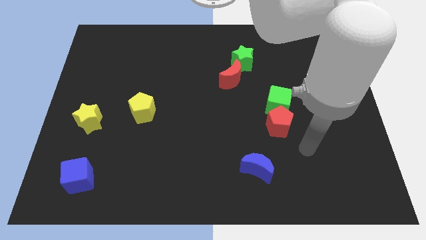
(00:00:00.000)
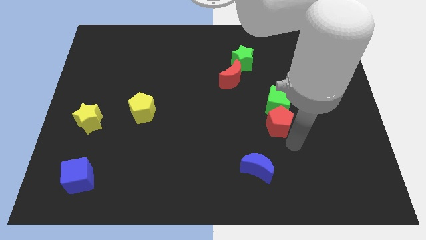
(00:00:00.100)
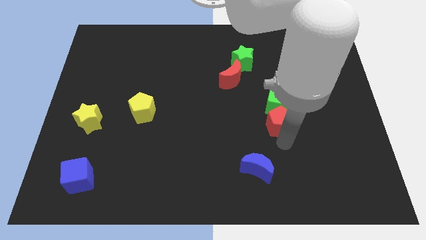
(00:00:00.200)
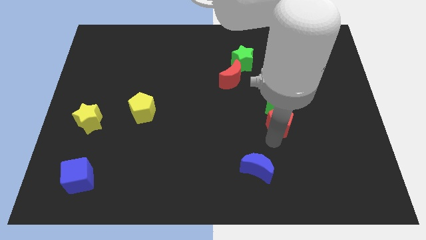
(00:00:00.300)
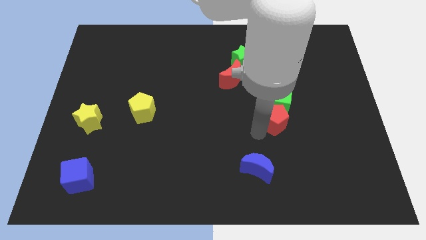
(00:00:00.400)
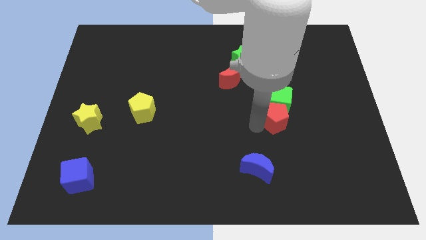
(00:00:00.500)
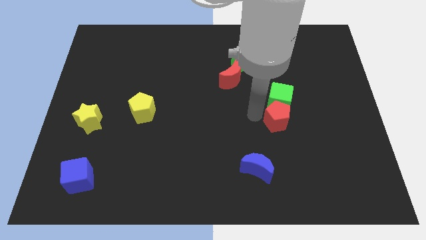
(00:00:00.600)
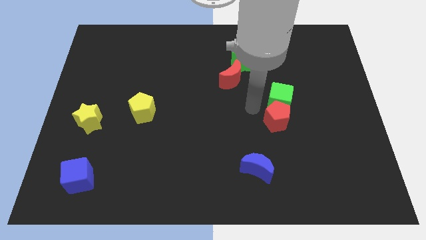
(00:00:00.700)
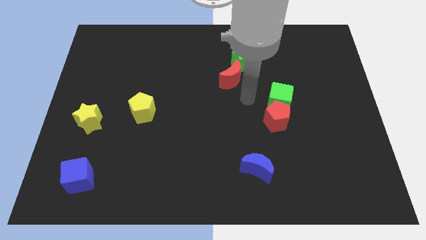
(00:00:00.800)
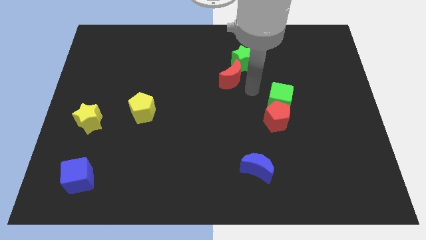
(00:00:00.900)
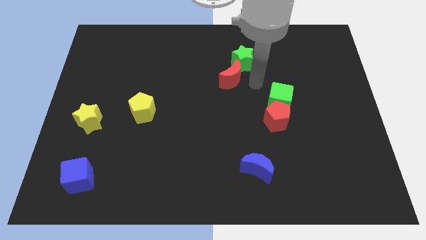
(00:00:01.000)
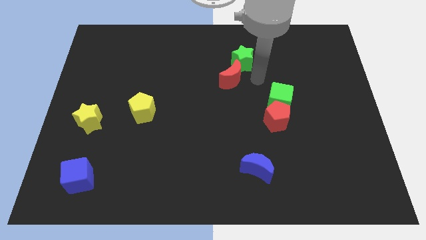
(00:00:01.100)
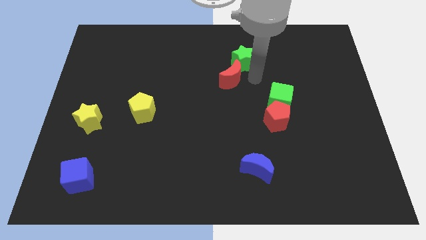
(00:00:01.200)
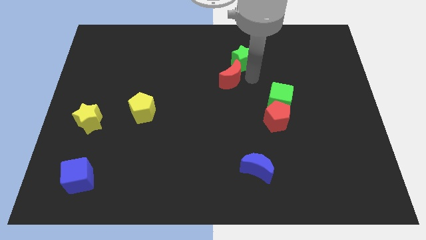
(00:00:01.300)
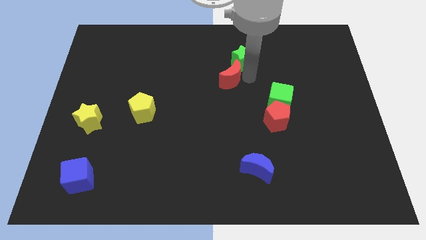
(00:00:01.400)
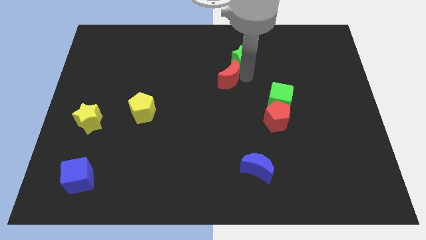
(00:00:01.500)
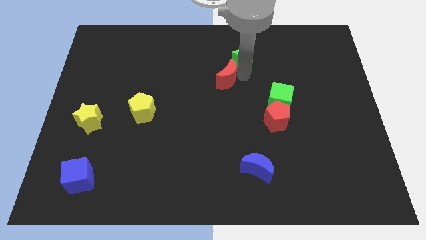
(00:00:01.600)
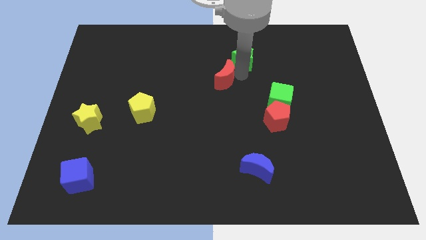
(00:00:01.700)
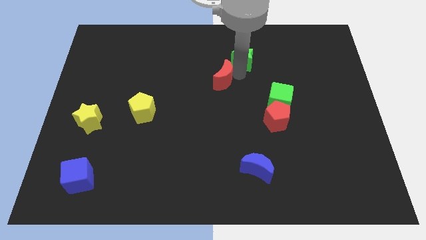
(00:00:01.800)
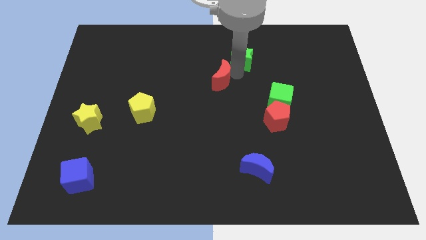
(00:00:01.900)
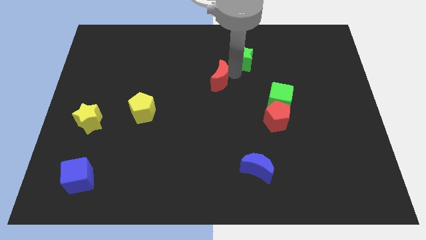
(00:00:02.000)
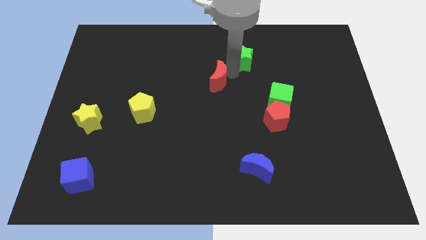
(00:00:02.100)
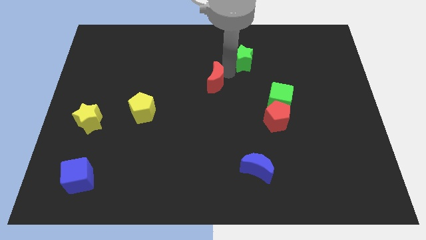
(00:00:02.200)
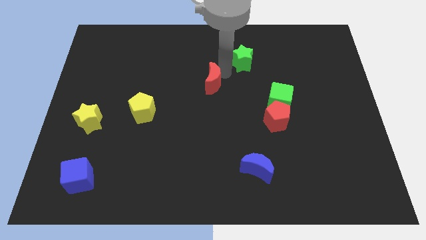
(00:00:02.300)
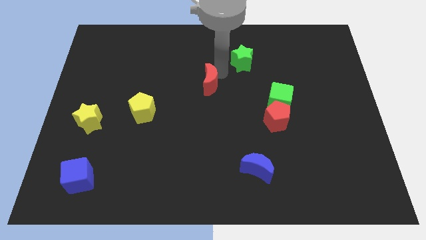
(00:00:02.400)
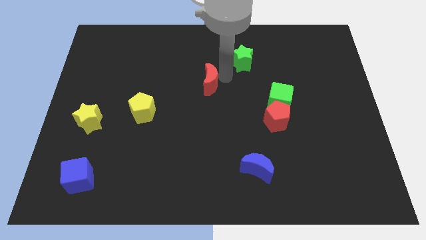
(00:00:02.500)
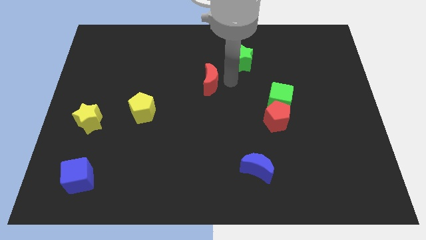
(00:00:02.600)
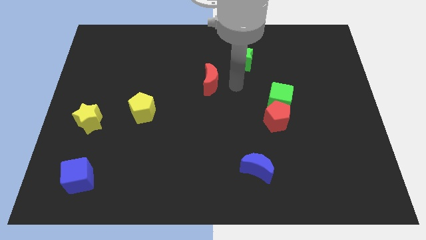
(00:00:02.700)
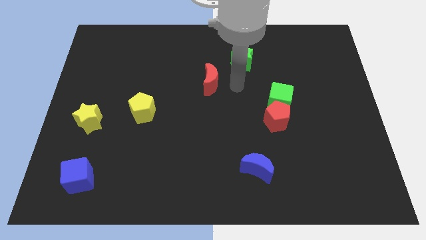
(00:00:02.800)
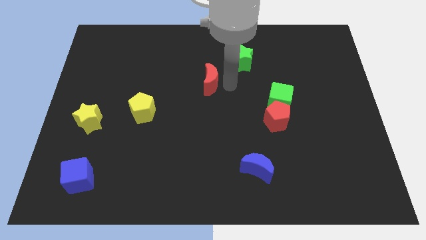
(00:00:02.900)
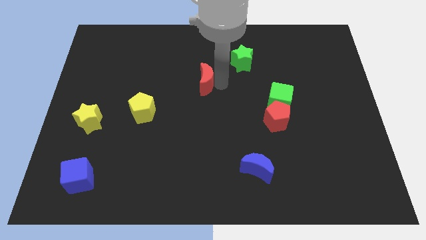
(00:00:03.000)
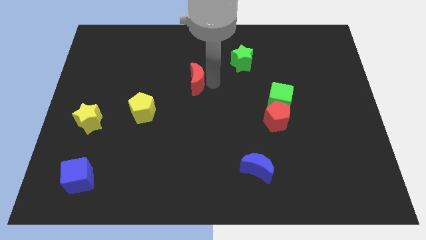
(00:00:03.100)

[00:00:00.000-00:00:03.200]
slide the red moon slightly to the left

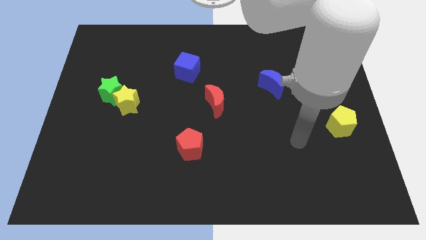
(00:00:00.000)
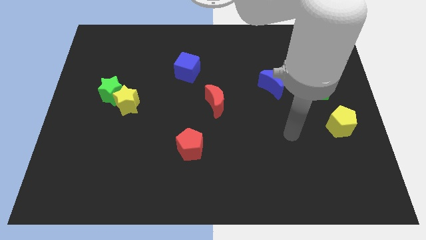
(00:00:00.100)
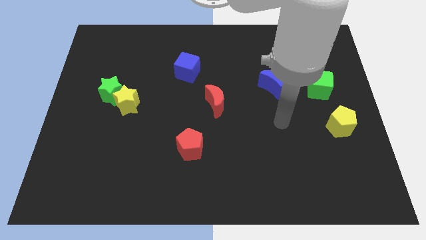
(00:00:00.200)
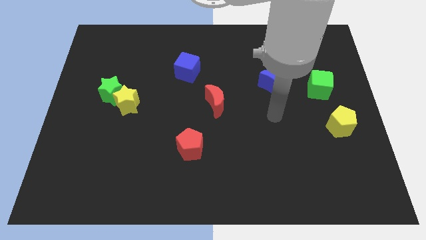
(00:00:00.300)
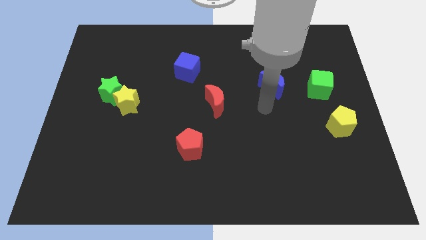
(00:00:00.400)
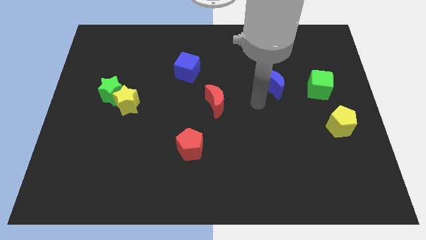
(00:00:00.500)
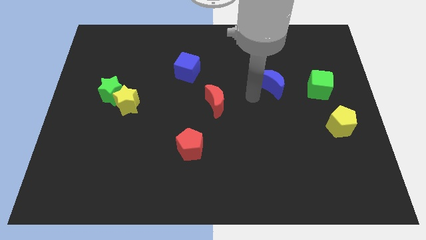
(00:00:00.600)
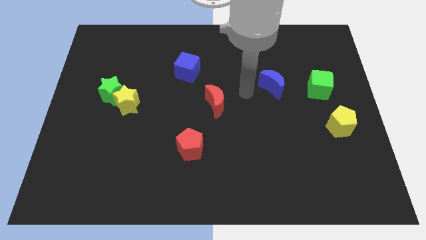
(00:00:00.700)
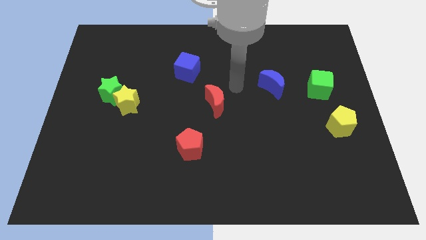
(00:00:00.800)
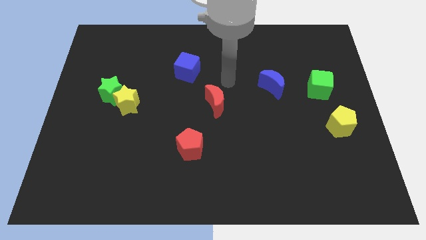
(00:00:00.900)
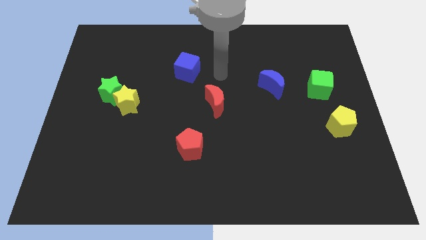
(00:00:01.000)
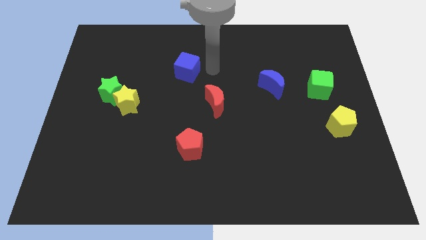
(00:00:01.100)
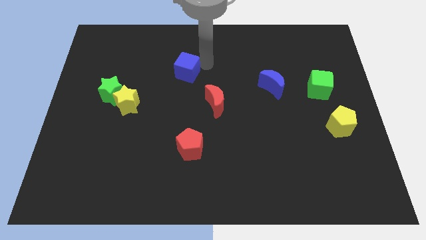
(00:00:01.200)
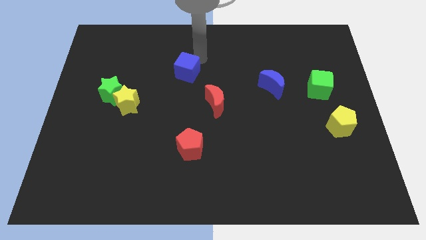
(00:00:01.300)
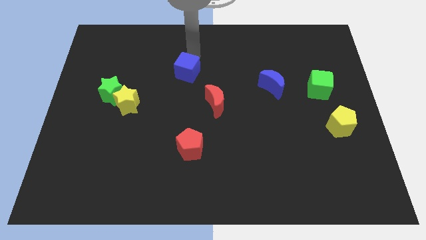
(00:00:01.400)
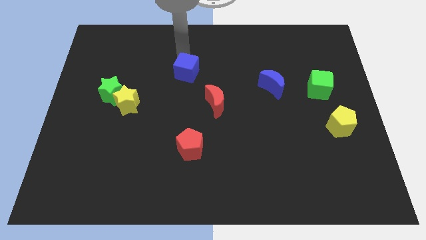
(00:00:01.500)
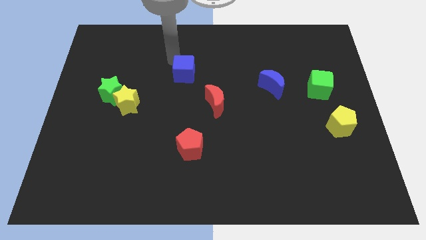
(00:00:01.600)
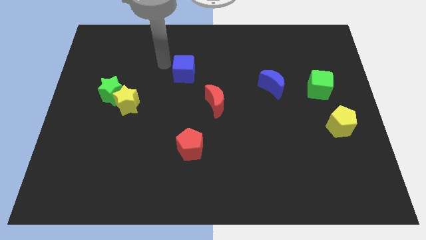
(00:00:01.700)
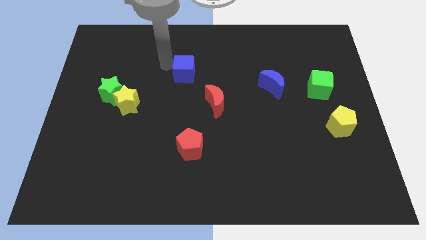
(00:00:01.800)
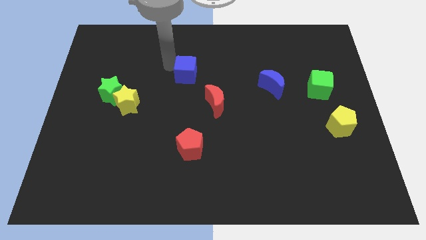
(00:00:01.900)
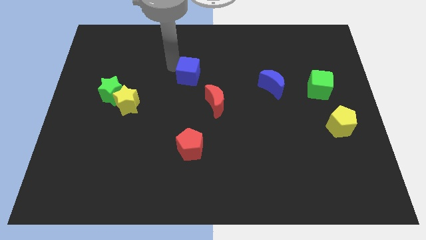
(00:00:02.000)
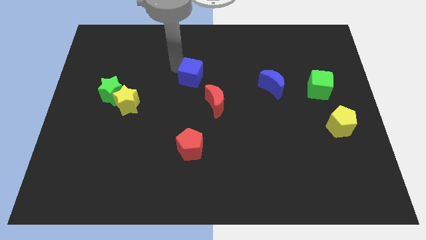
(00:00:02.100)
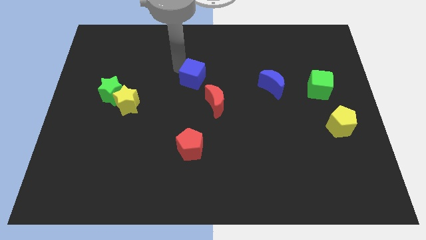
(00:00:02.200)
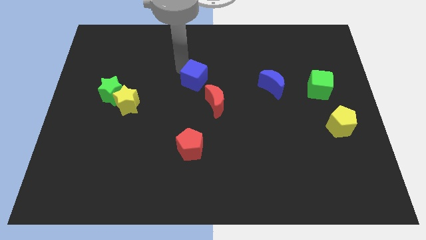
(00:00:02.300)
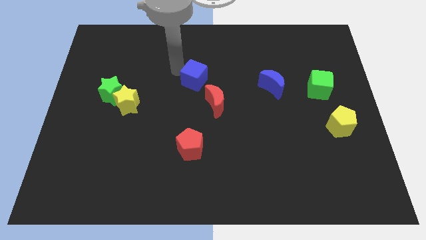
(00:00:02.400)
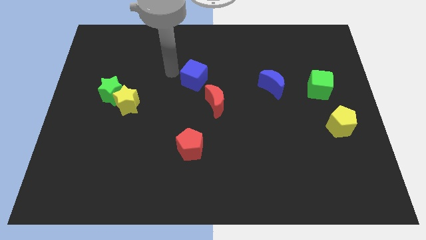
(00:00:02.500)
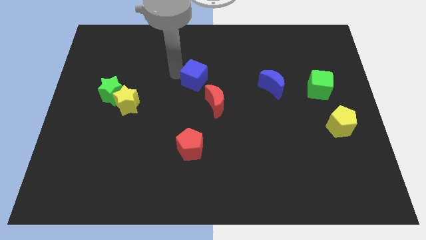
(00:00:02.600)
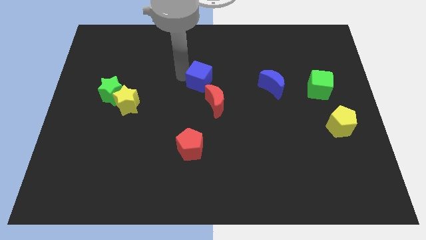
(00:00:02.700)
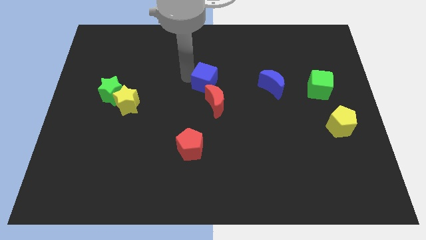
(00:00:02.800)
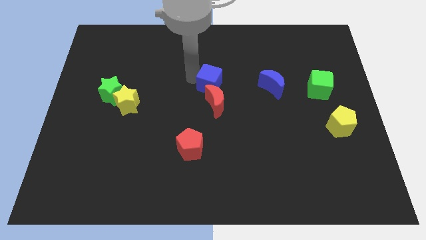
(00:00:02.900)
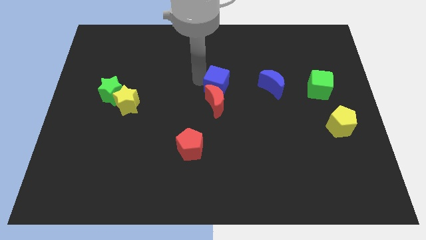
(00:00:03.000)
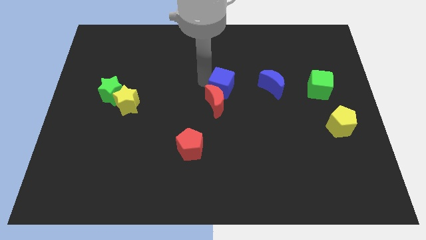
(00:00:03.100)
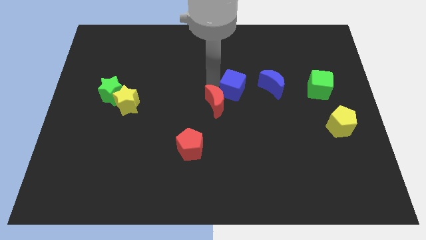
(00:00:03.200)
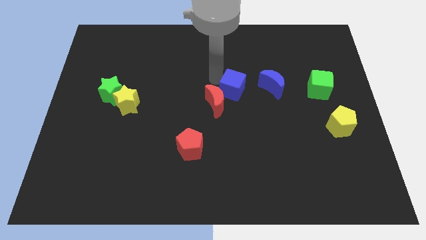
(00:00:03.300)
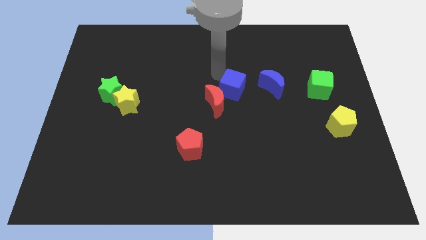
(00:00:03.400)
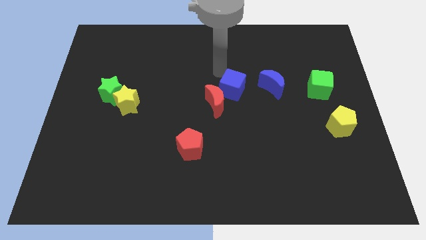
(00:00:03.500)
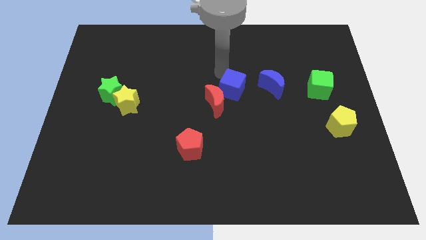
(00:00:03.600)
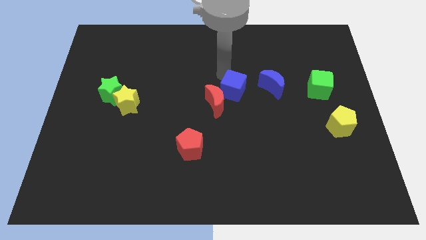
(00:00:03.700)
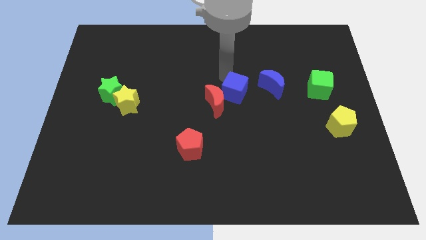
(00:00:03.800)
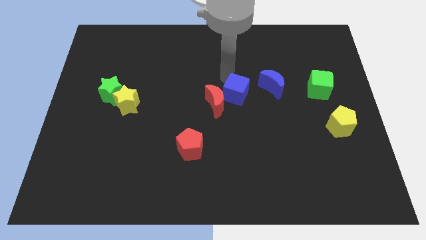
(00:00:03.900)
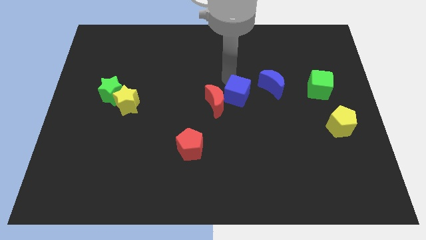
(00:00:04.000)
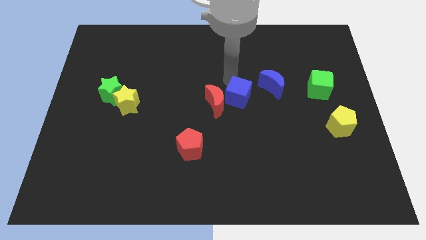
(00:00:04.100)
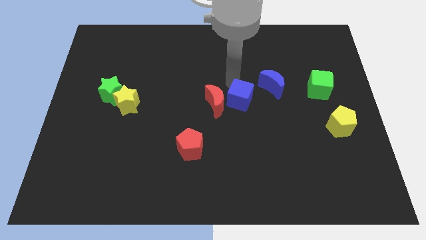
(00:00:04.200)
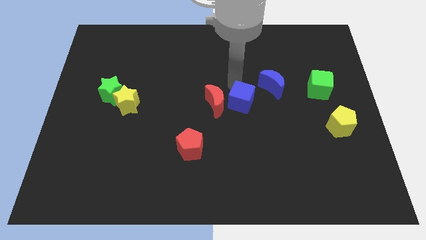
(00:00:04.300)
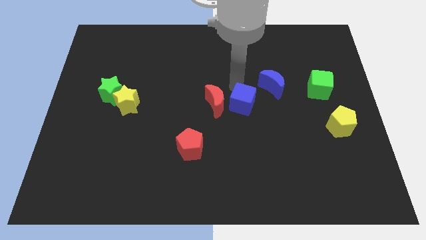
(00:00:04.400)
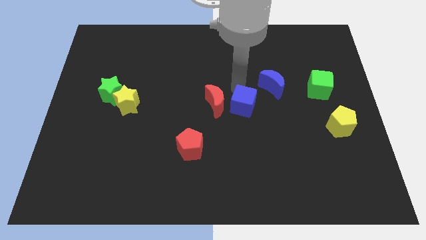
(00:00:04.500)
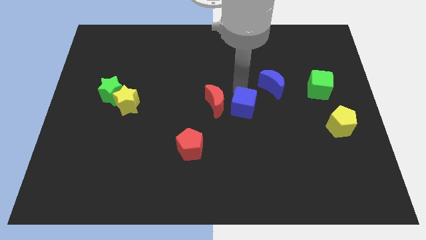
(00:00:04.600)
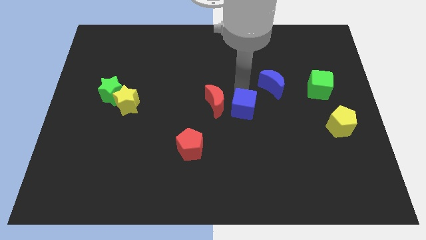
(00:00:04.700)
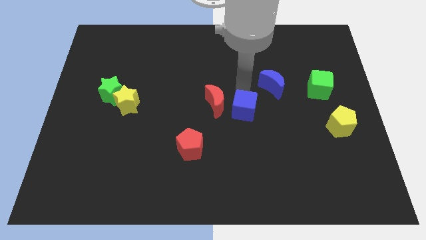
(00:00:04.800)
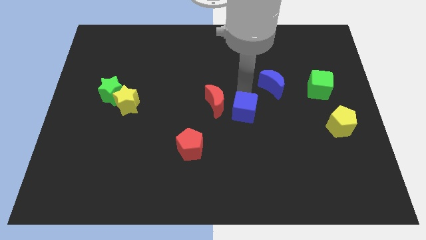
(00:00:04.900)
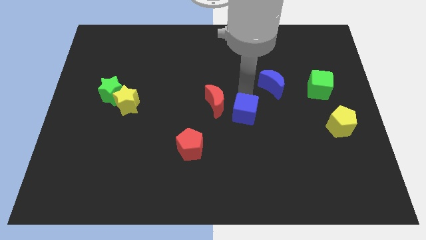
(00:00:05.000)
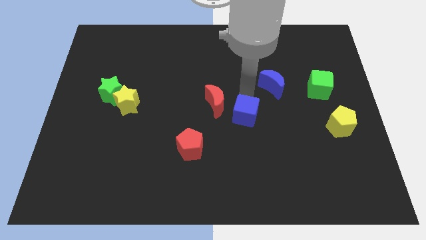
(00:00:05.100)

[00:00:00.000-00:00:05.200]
slide the blue cube downwards and right diagonally
